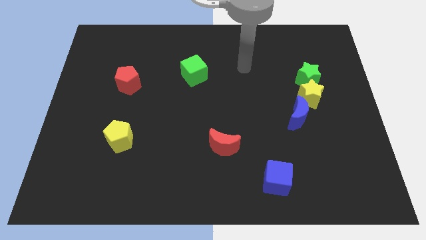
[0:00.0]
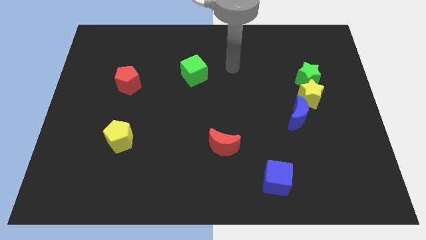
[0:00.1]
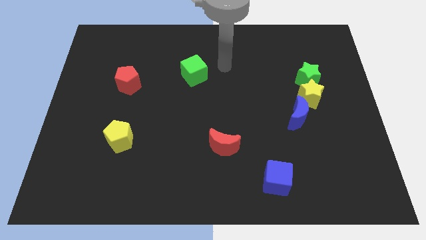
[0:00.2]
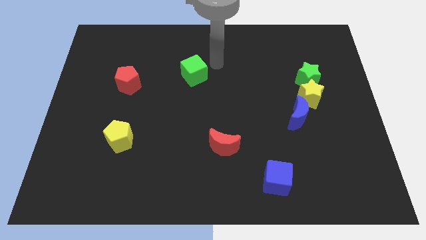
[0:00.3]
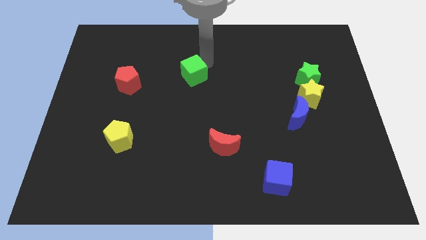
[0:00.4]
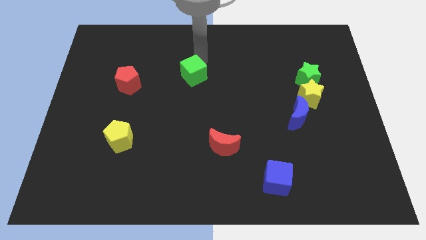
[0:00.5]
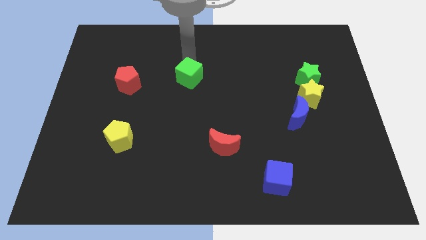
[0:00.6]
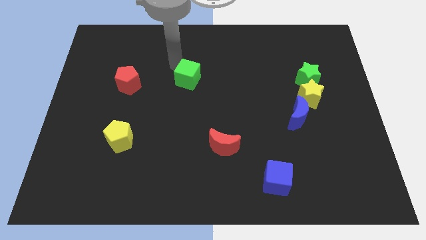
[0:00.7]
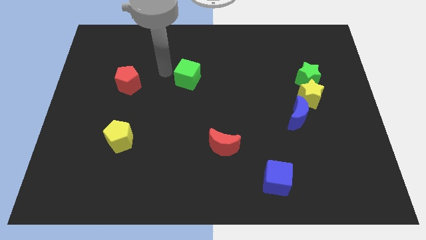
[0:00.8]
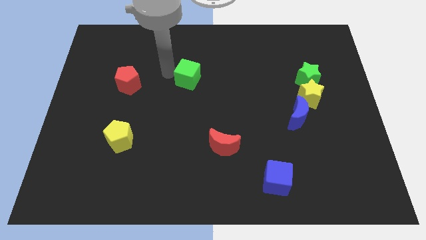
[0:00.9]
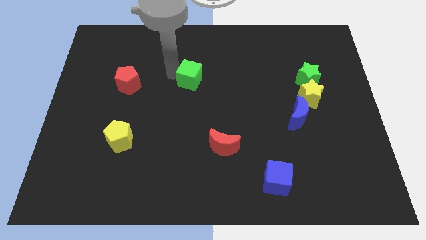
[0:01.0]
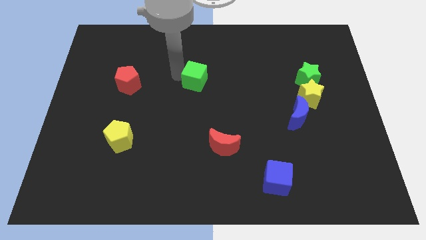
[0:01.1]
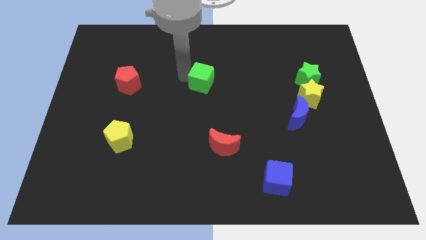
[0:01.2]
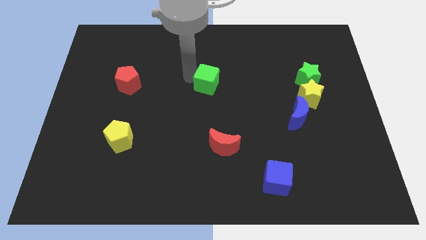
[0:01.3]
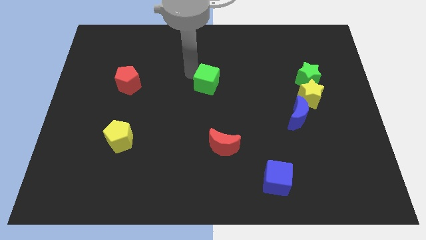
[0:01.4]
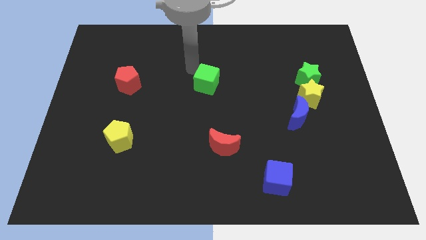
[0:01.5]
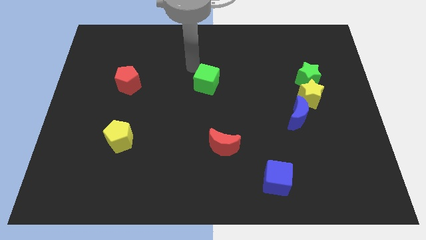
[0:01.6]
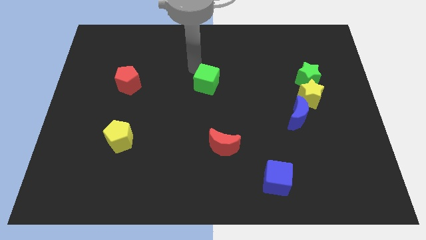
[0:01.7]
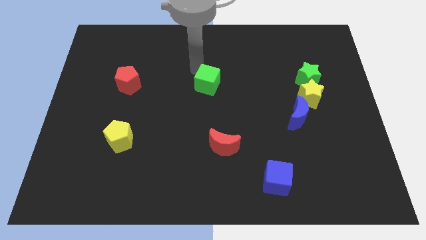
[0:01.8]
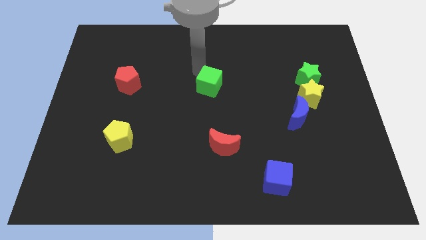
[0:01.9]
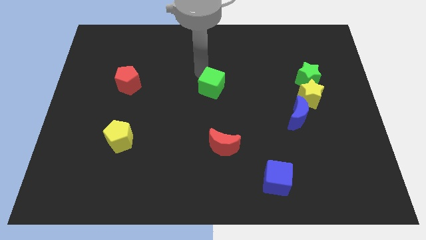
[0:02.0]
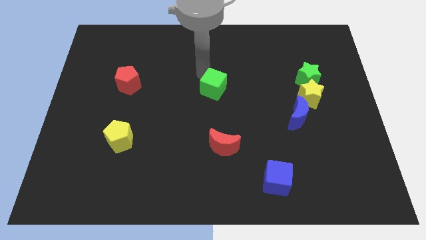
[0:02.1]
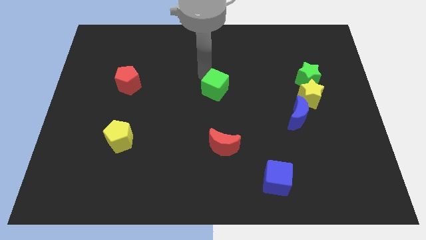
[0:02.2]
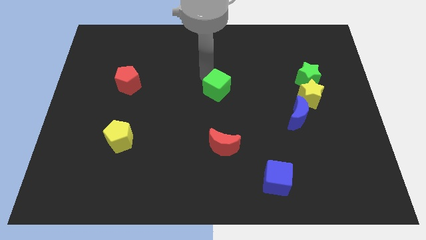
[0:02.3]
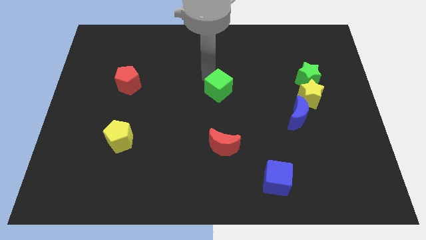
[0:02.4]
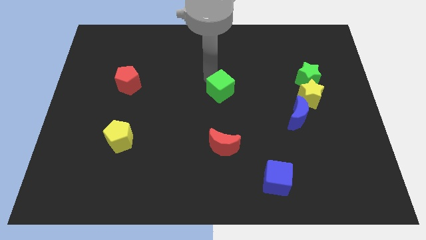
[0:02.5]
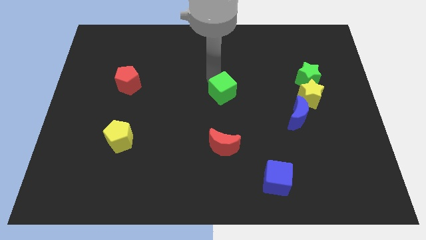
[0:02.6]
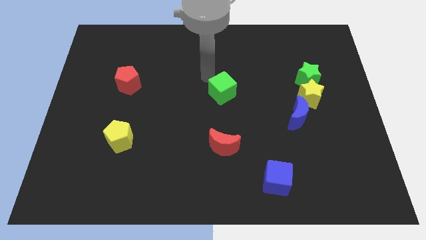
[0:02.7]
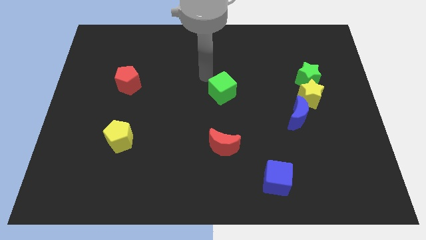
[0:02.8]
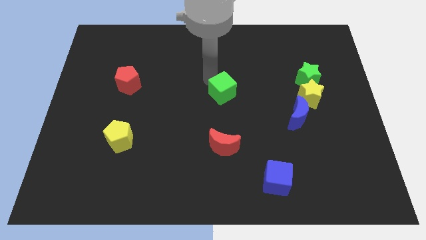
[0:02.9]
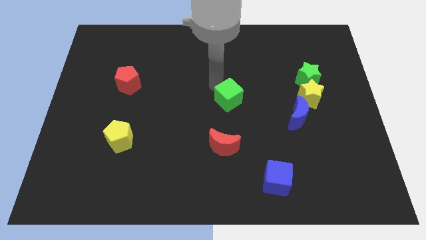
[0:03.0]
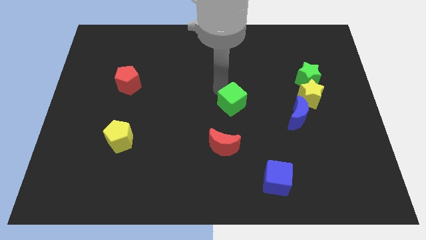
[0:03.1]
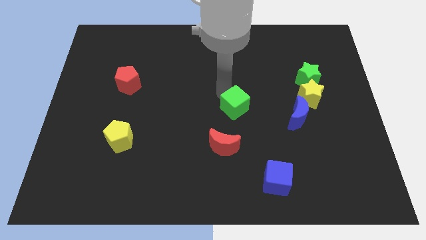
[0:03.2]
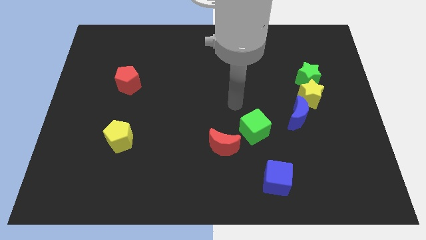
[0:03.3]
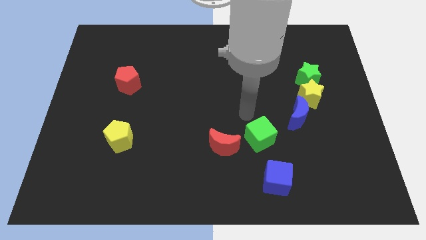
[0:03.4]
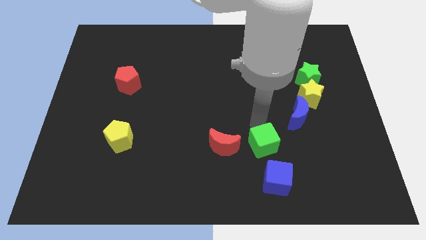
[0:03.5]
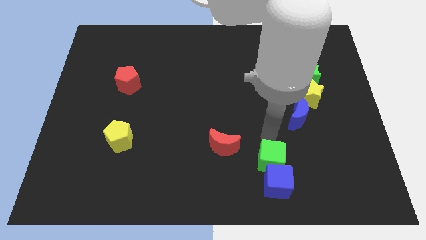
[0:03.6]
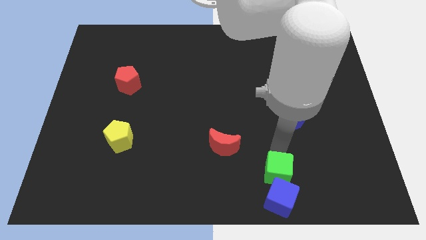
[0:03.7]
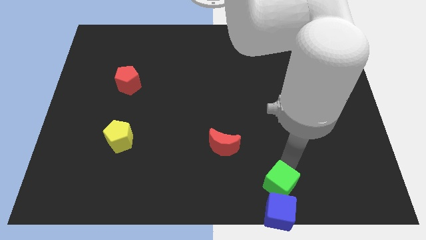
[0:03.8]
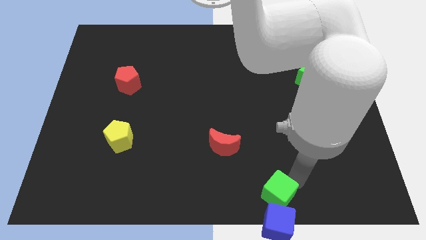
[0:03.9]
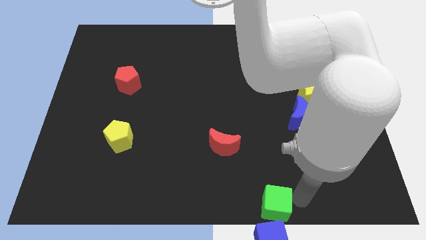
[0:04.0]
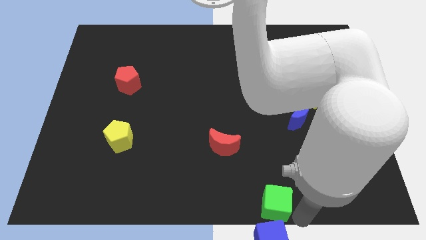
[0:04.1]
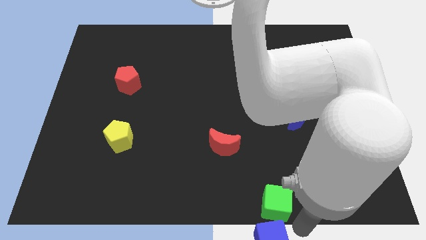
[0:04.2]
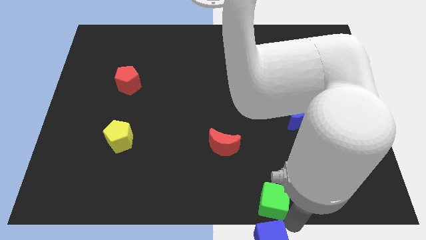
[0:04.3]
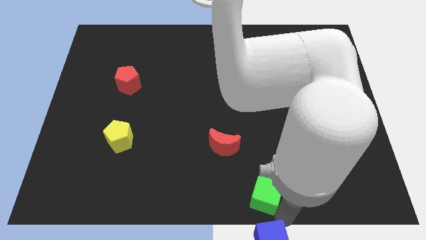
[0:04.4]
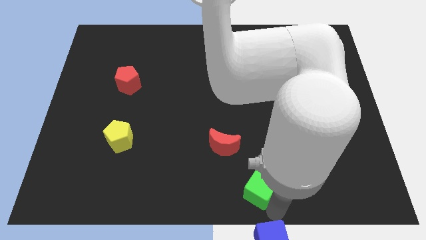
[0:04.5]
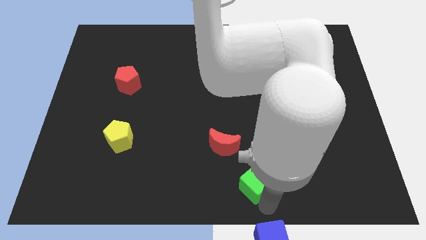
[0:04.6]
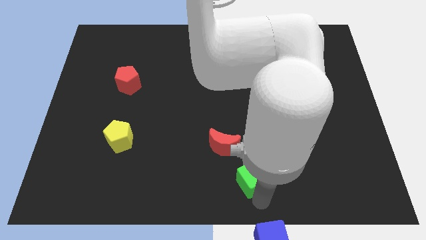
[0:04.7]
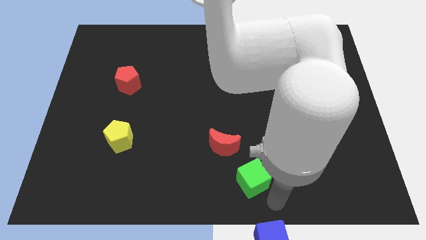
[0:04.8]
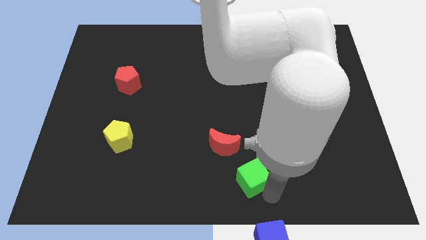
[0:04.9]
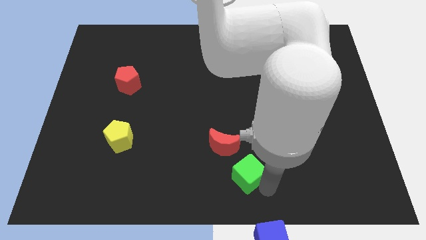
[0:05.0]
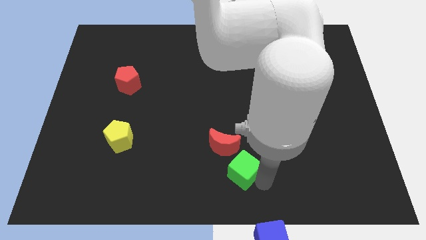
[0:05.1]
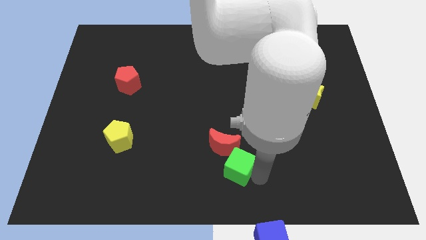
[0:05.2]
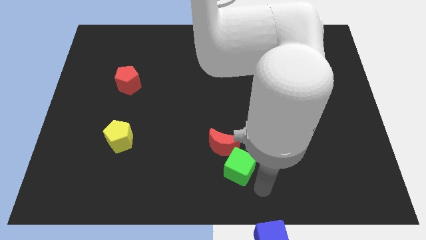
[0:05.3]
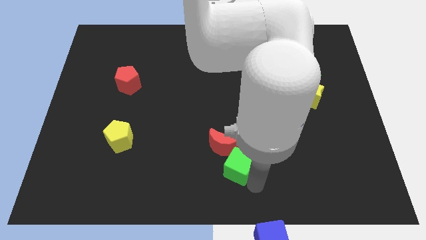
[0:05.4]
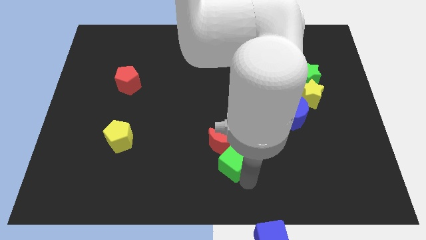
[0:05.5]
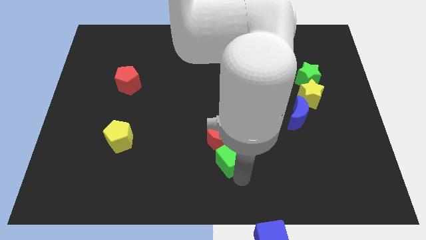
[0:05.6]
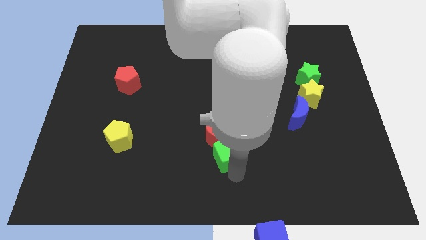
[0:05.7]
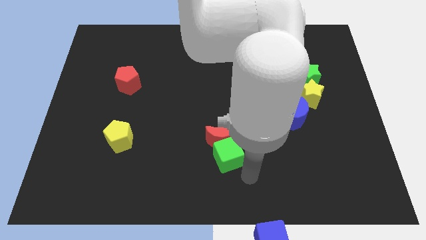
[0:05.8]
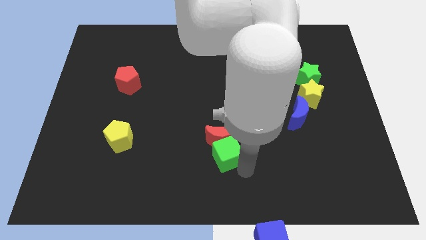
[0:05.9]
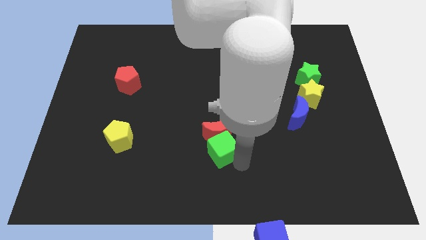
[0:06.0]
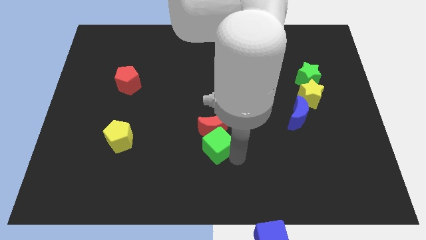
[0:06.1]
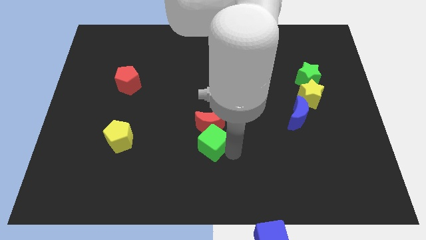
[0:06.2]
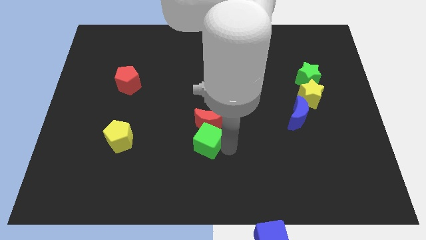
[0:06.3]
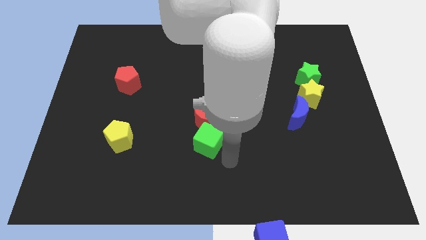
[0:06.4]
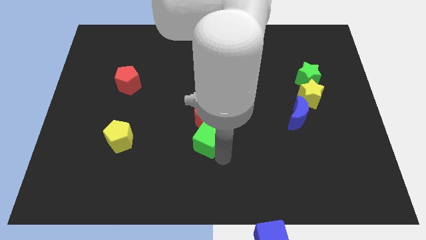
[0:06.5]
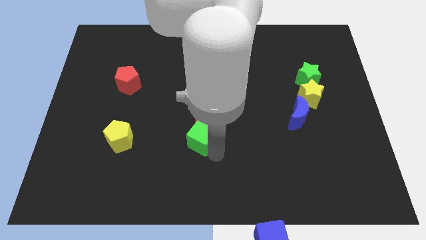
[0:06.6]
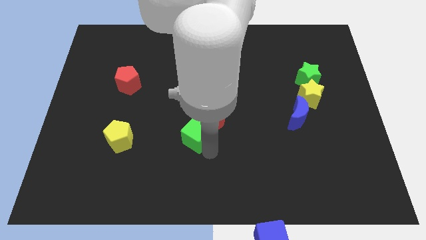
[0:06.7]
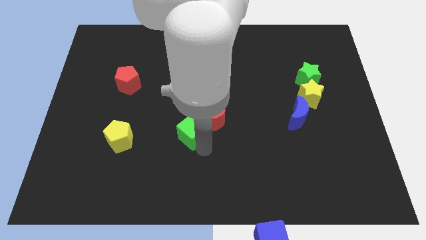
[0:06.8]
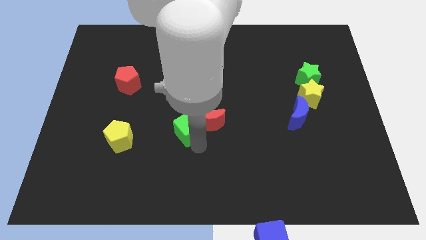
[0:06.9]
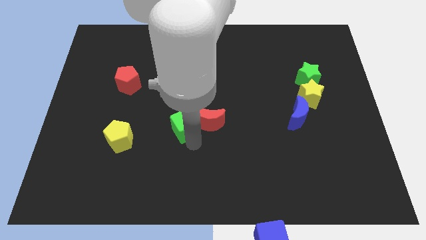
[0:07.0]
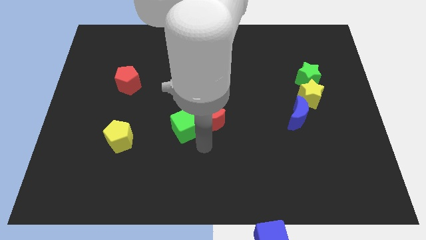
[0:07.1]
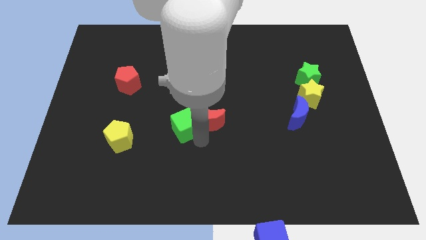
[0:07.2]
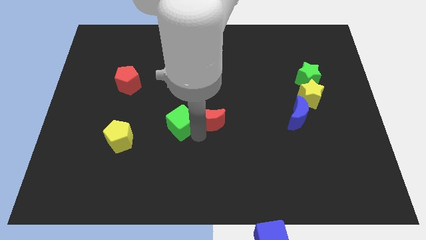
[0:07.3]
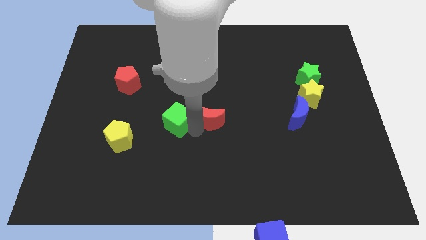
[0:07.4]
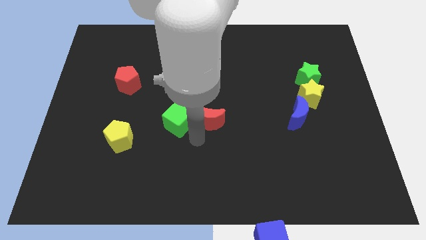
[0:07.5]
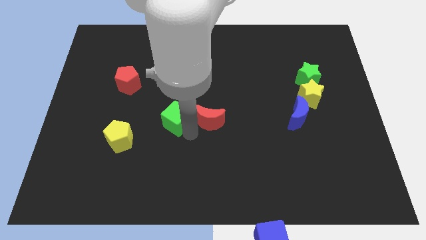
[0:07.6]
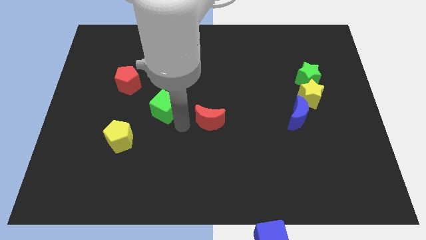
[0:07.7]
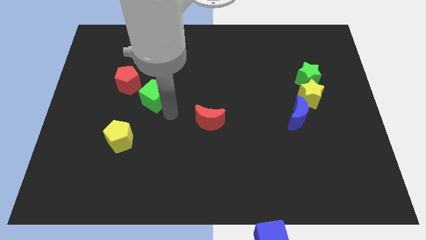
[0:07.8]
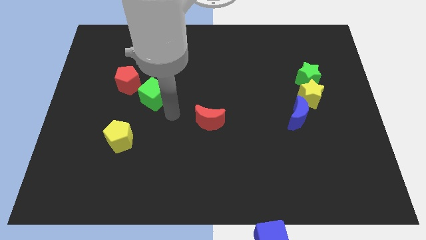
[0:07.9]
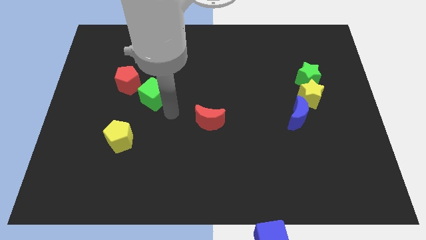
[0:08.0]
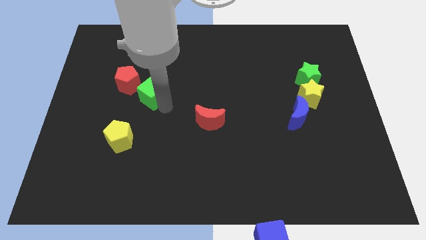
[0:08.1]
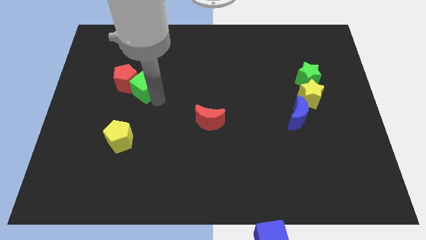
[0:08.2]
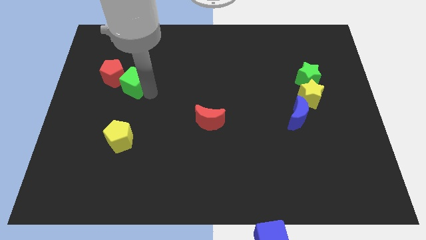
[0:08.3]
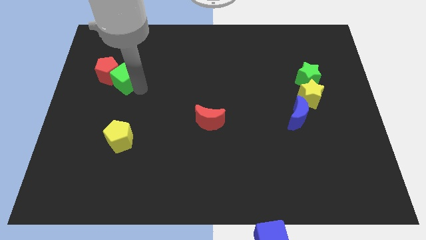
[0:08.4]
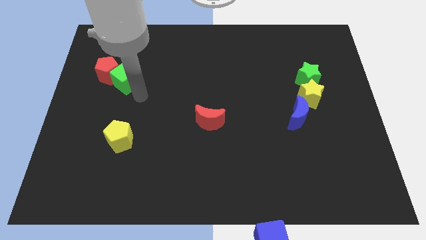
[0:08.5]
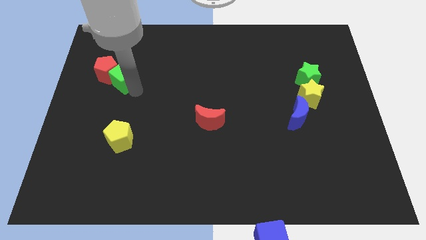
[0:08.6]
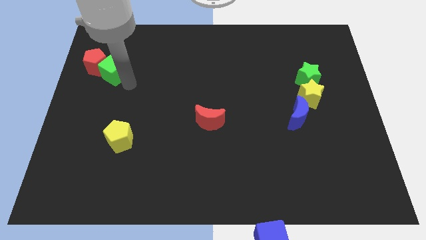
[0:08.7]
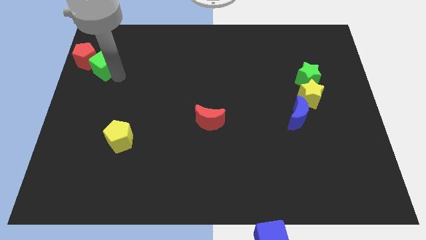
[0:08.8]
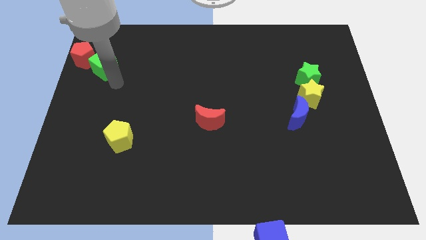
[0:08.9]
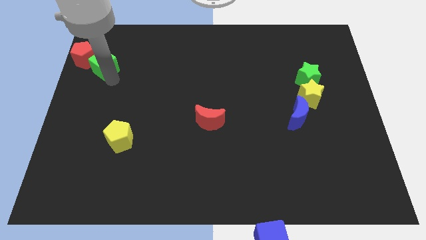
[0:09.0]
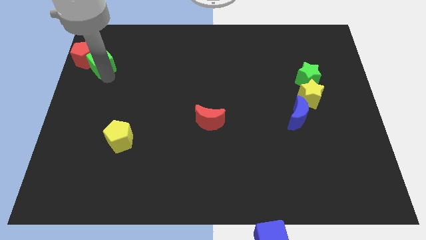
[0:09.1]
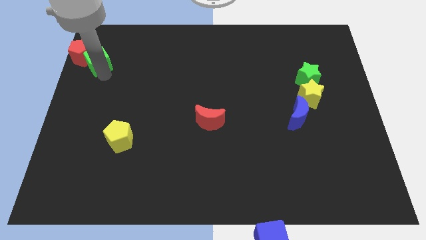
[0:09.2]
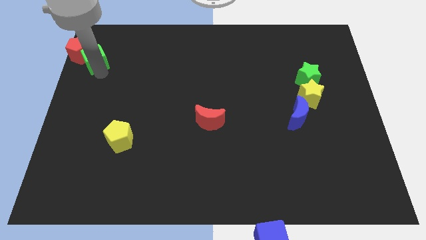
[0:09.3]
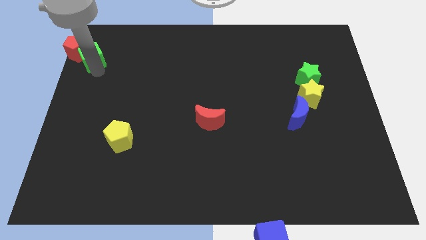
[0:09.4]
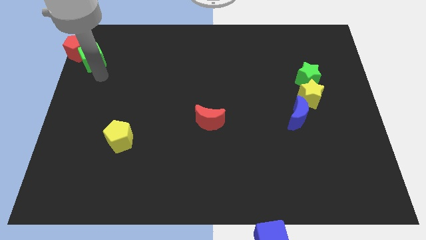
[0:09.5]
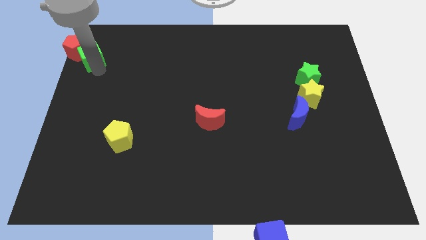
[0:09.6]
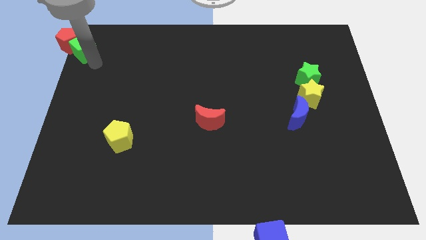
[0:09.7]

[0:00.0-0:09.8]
put the green cube to the top left corner
